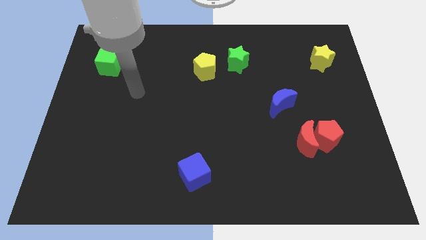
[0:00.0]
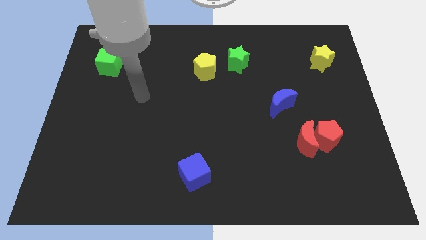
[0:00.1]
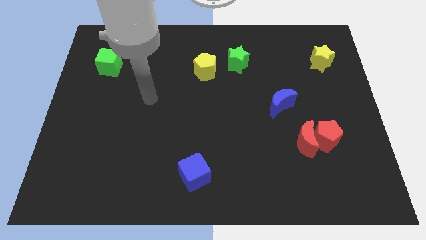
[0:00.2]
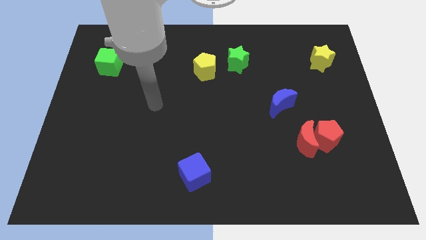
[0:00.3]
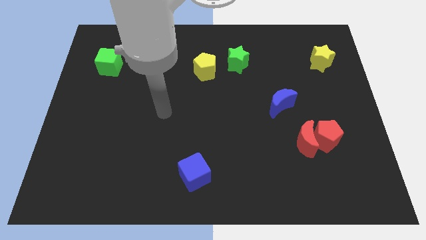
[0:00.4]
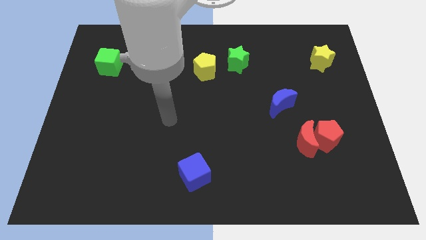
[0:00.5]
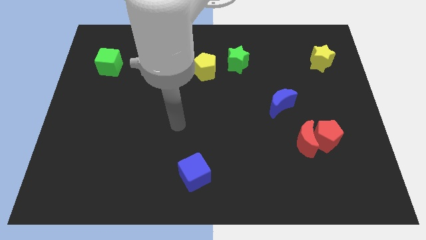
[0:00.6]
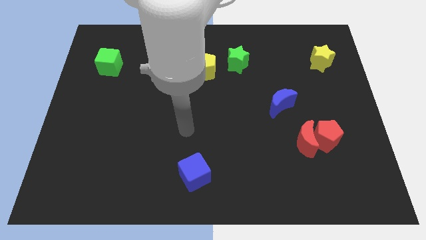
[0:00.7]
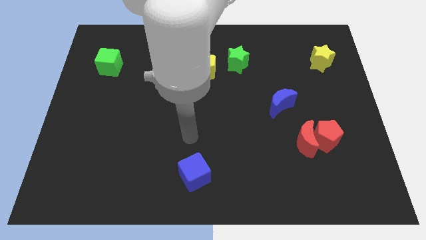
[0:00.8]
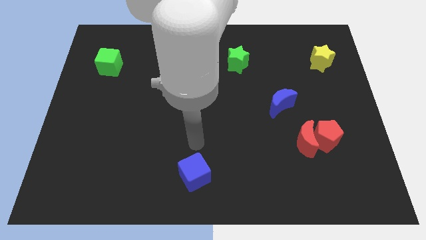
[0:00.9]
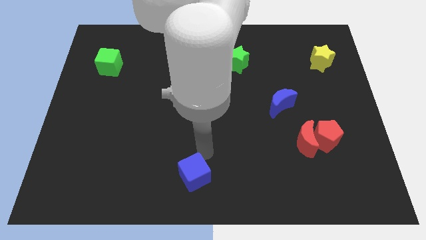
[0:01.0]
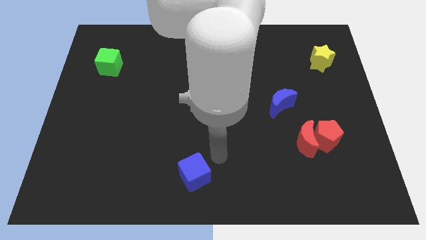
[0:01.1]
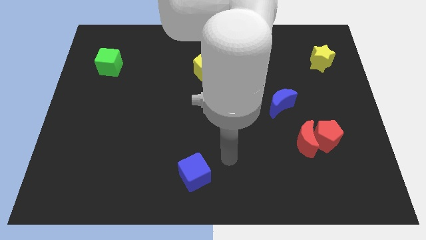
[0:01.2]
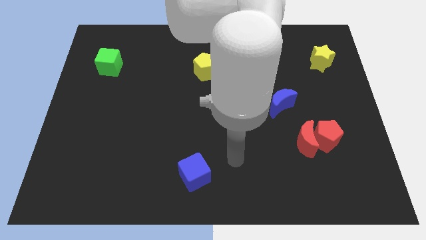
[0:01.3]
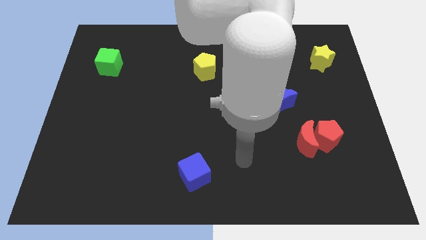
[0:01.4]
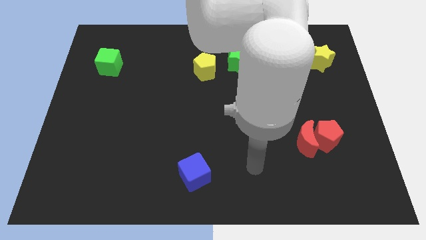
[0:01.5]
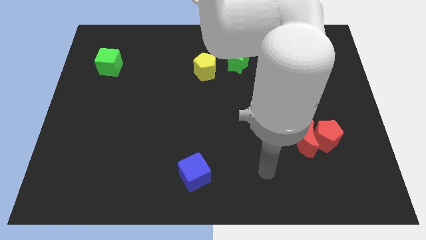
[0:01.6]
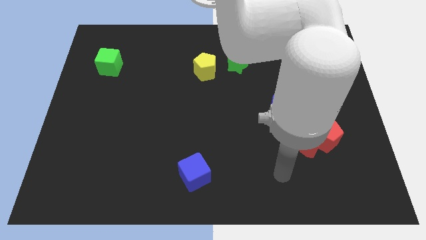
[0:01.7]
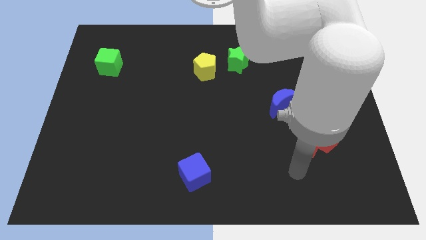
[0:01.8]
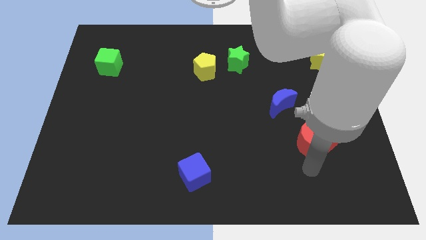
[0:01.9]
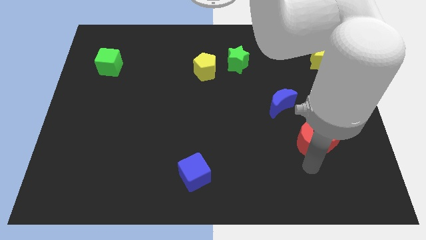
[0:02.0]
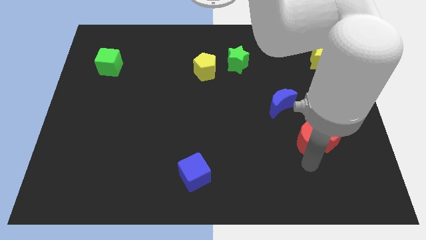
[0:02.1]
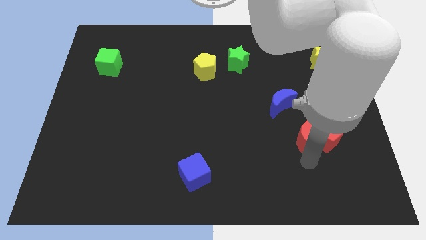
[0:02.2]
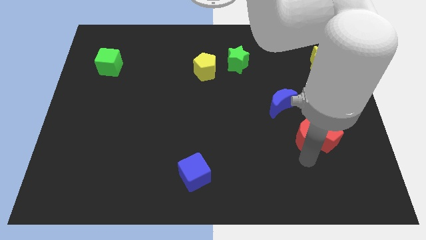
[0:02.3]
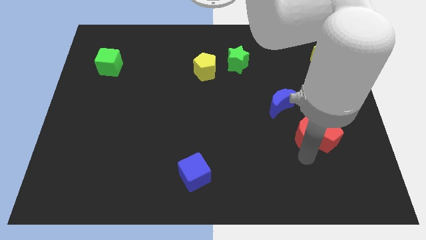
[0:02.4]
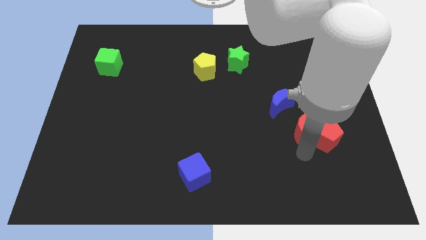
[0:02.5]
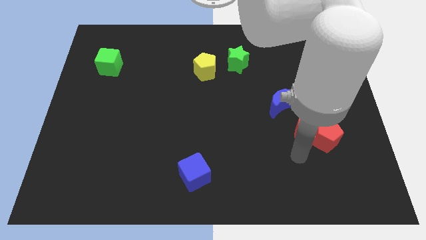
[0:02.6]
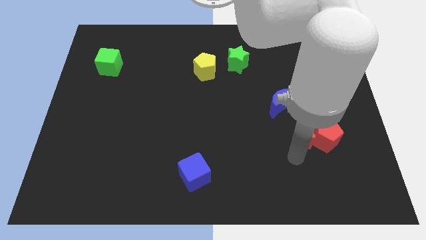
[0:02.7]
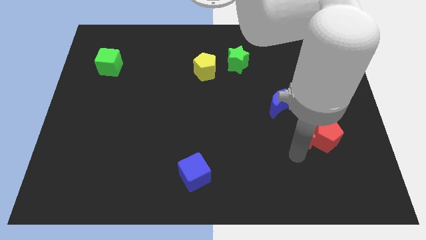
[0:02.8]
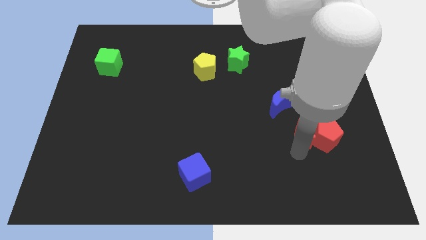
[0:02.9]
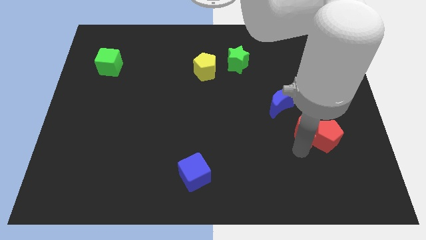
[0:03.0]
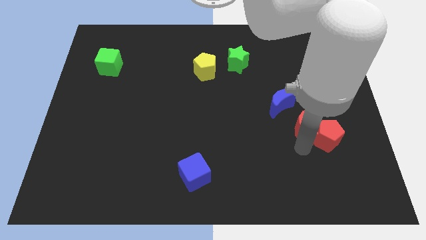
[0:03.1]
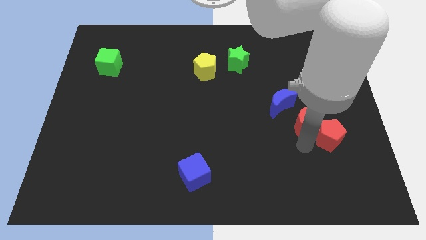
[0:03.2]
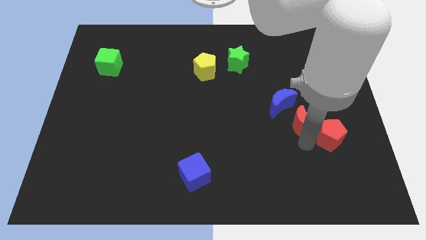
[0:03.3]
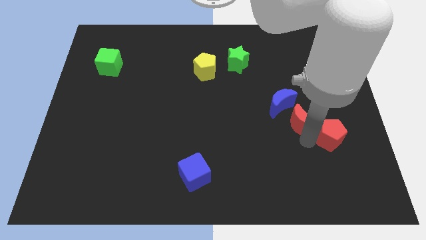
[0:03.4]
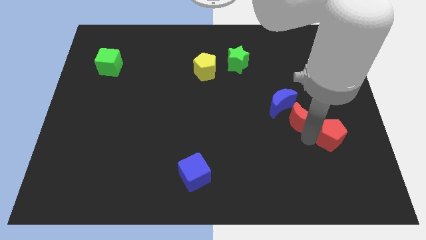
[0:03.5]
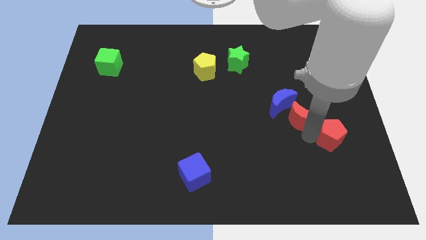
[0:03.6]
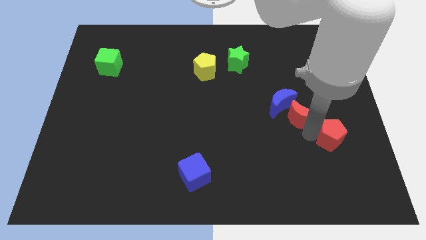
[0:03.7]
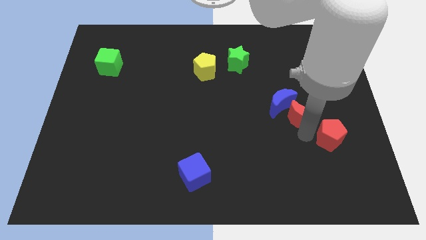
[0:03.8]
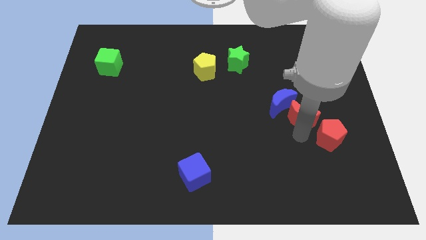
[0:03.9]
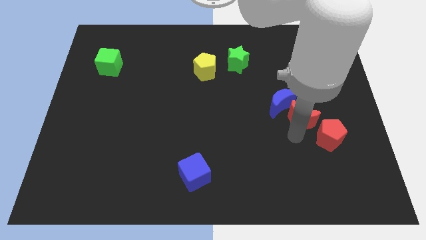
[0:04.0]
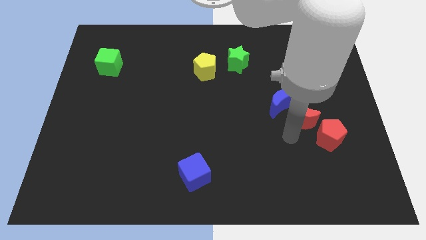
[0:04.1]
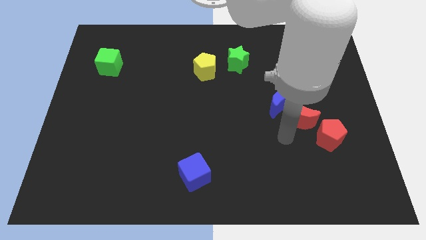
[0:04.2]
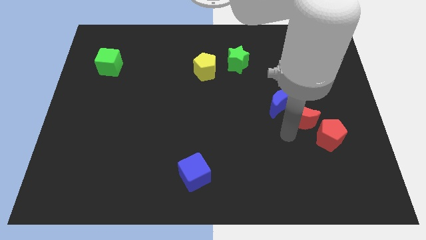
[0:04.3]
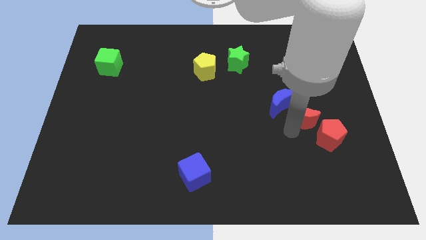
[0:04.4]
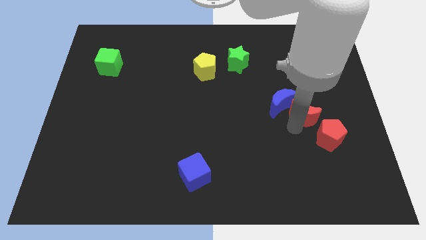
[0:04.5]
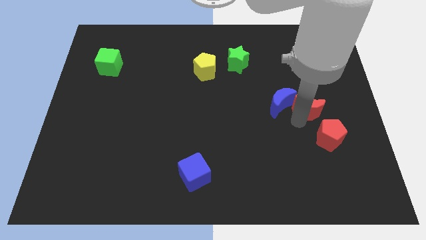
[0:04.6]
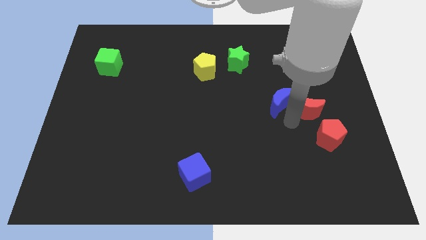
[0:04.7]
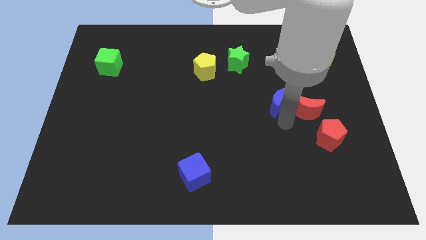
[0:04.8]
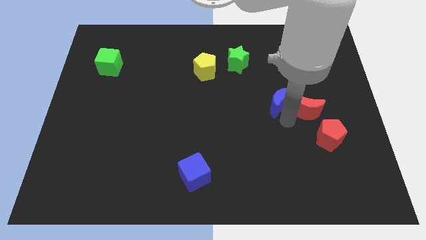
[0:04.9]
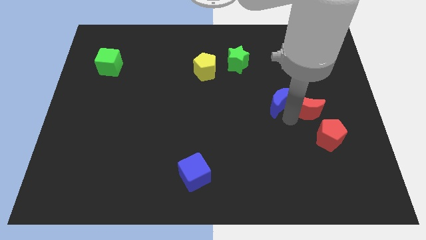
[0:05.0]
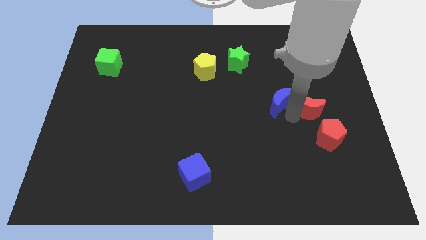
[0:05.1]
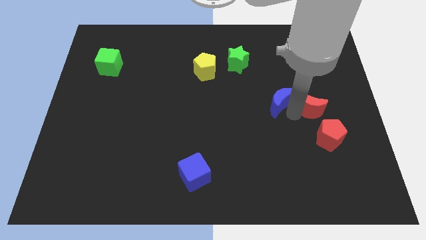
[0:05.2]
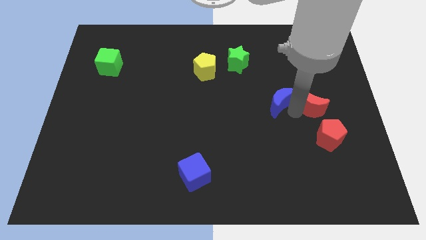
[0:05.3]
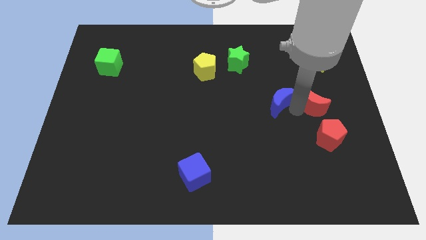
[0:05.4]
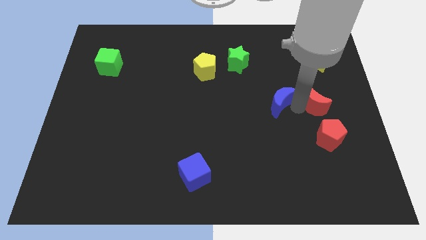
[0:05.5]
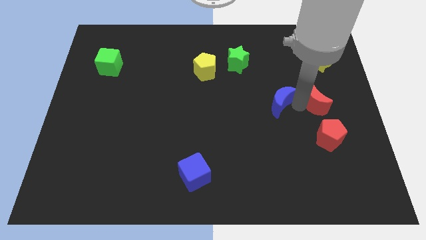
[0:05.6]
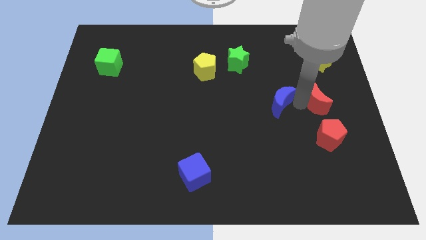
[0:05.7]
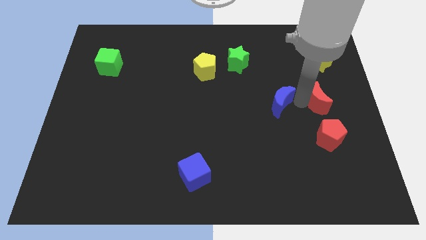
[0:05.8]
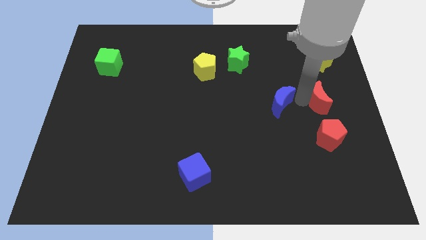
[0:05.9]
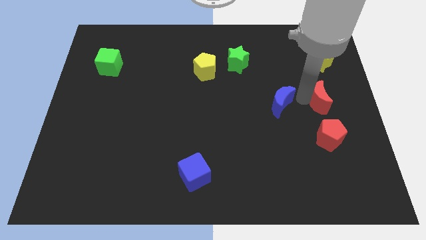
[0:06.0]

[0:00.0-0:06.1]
push the red moon to the center right
